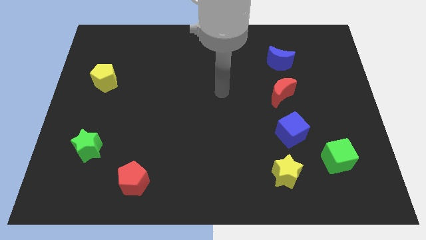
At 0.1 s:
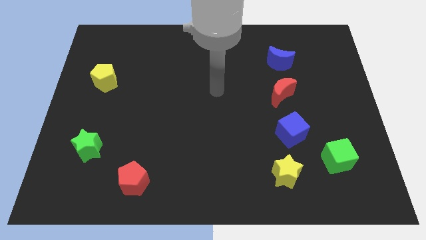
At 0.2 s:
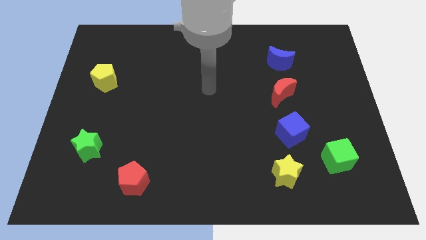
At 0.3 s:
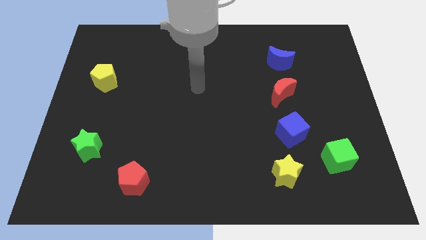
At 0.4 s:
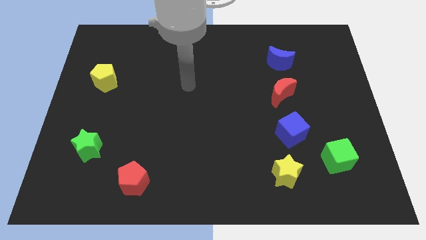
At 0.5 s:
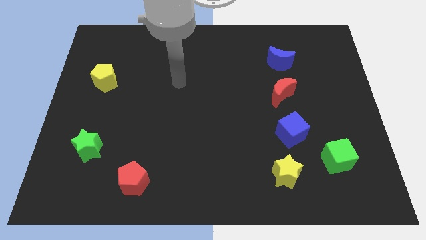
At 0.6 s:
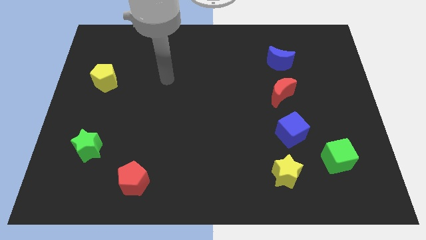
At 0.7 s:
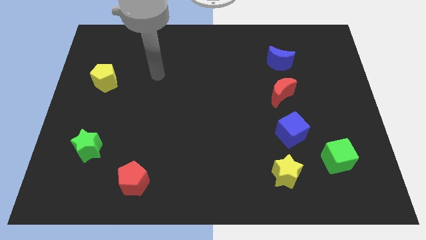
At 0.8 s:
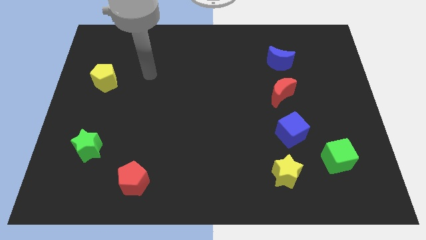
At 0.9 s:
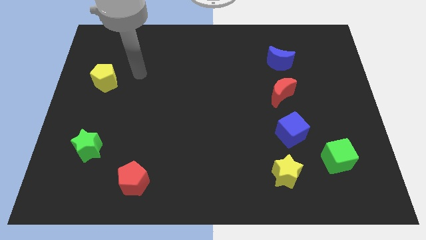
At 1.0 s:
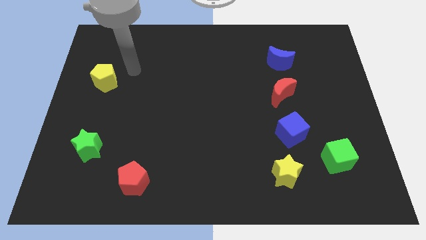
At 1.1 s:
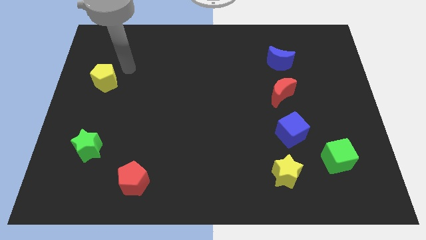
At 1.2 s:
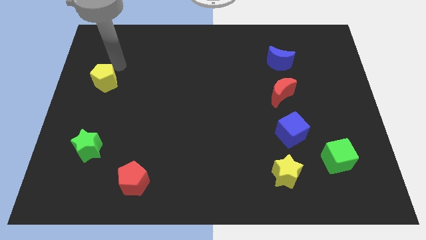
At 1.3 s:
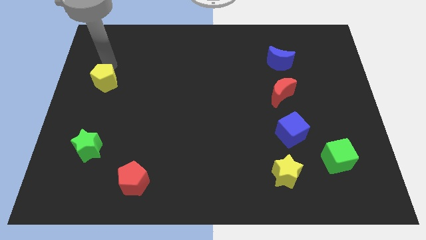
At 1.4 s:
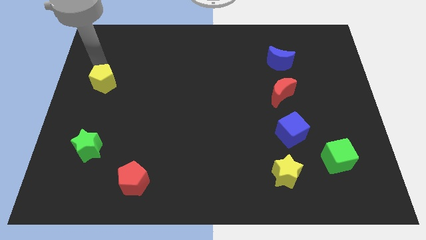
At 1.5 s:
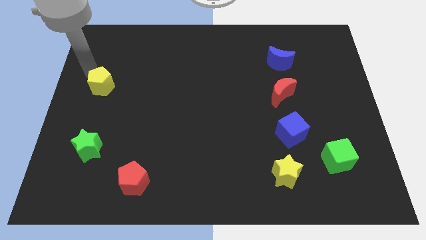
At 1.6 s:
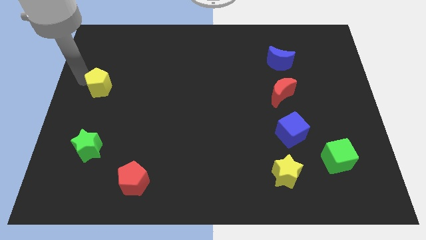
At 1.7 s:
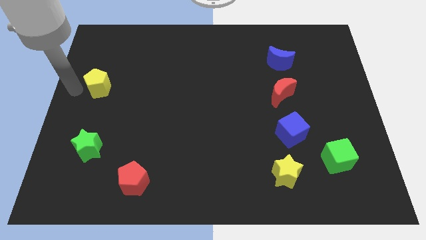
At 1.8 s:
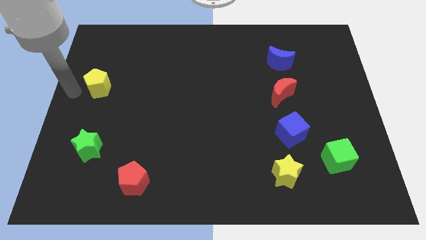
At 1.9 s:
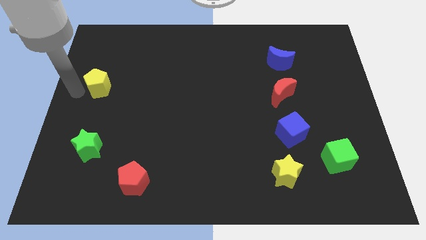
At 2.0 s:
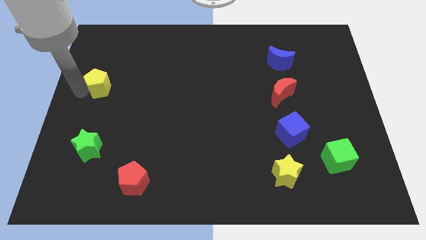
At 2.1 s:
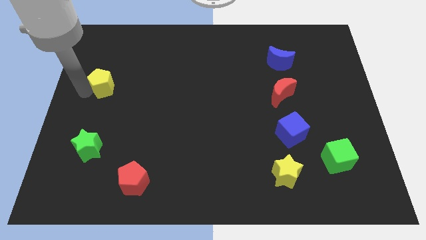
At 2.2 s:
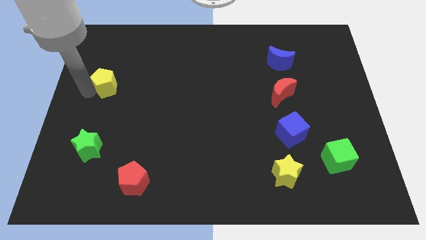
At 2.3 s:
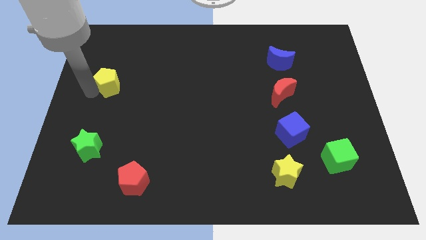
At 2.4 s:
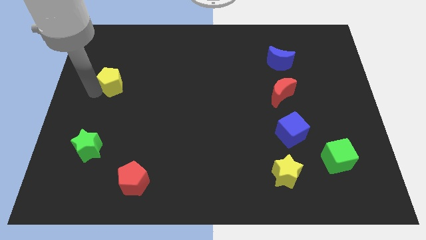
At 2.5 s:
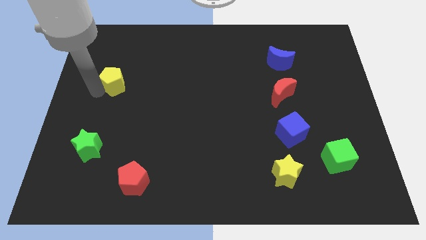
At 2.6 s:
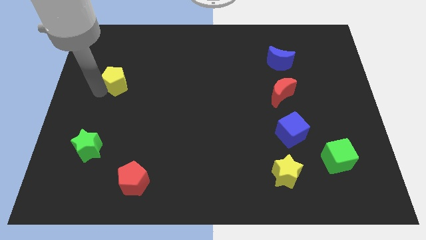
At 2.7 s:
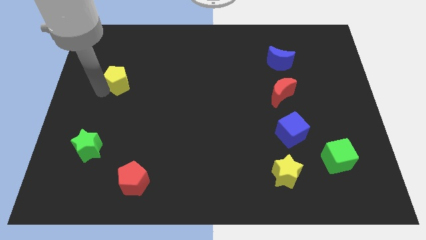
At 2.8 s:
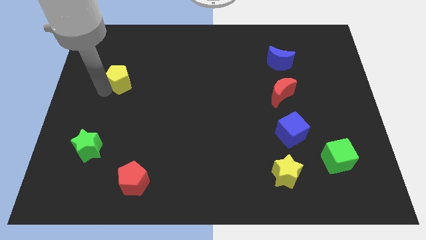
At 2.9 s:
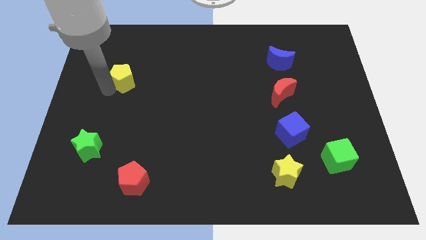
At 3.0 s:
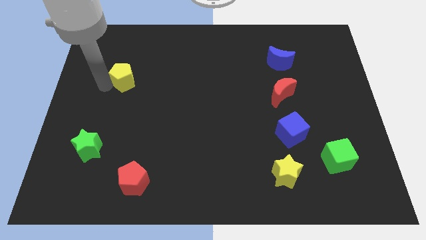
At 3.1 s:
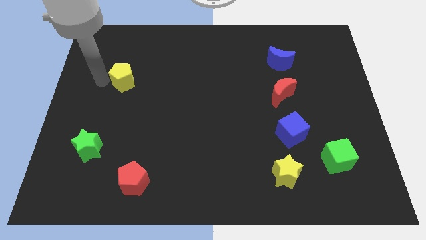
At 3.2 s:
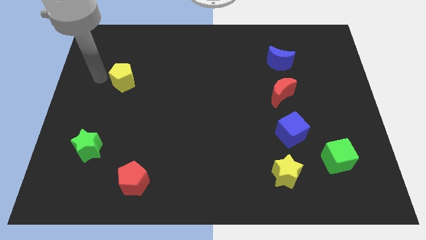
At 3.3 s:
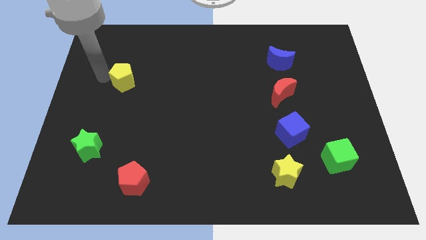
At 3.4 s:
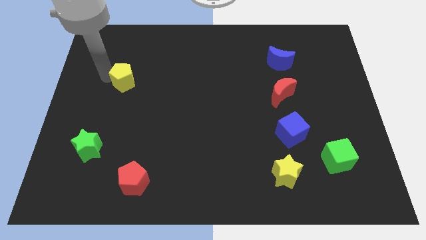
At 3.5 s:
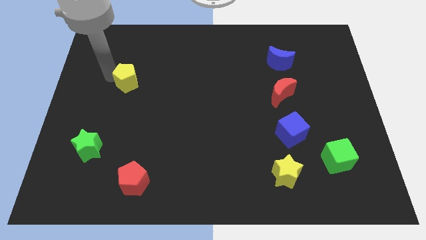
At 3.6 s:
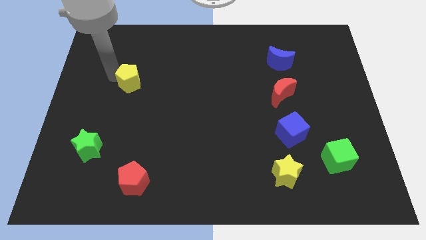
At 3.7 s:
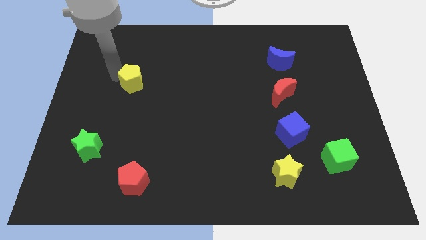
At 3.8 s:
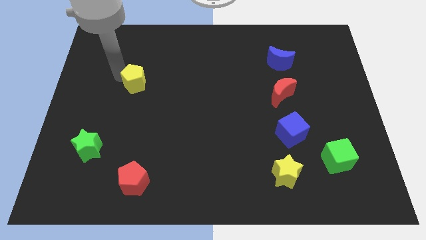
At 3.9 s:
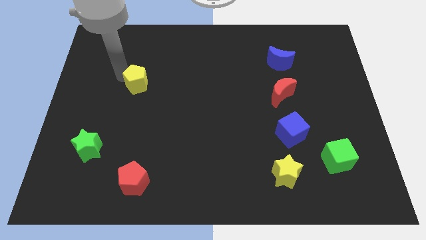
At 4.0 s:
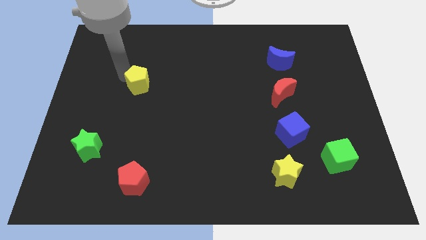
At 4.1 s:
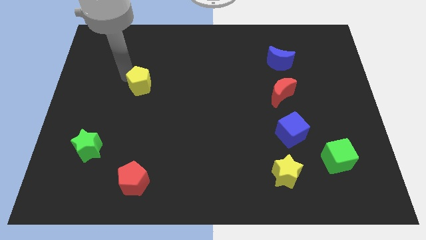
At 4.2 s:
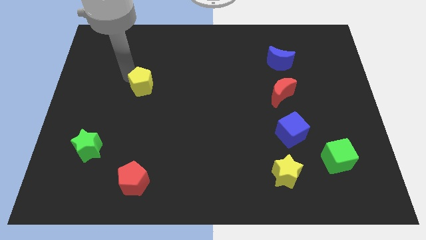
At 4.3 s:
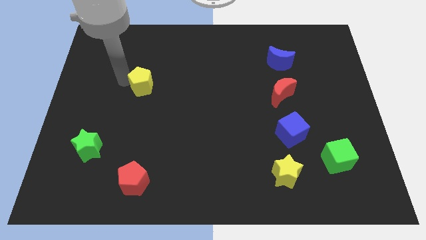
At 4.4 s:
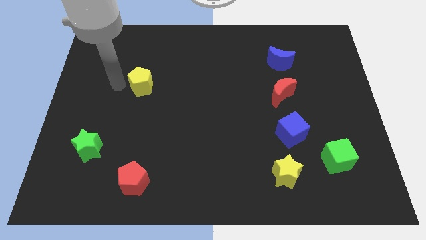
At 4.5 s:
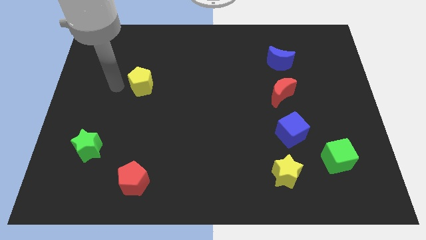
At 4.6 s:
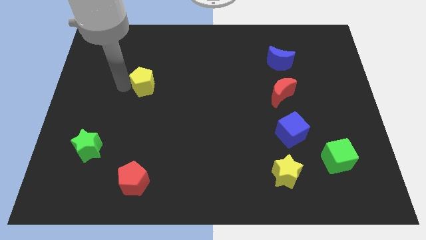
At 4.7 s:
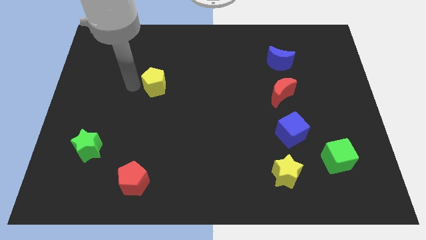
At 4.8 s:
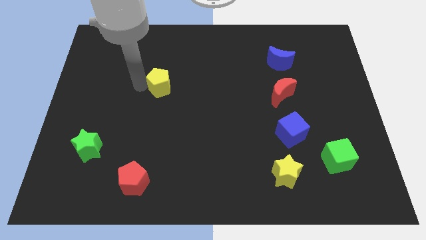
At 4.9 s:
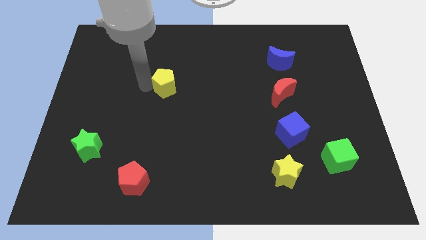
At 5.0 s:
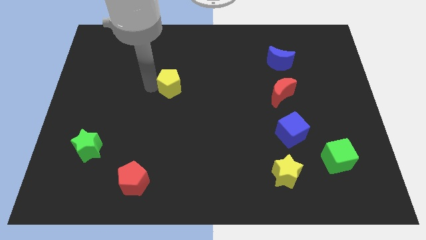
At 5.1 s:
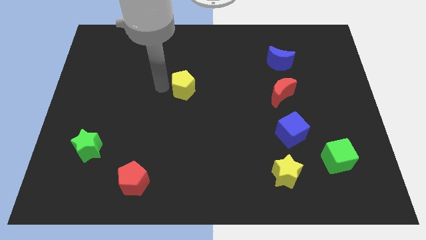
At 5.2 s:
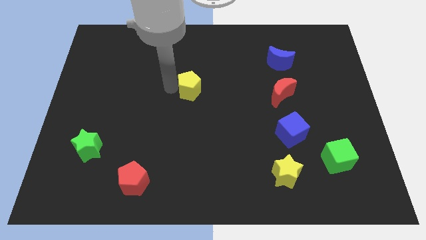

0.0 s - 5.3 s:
slide the yellow pentagon right

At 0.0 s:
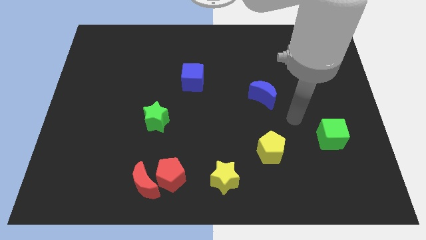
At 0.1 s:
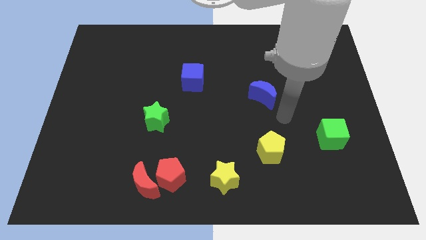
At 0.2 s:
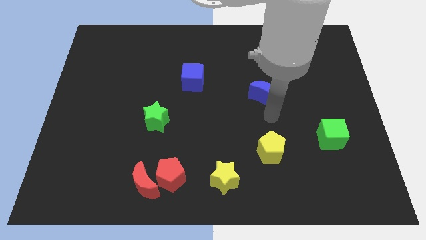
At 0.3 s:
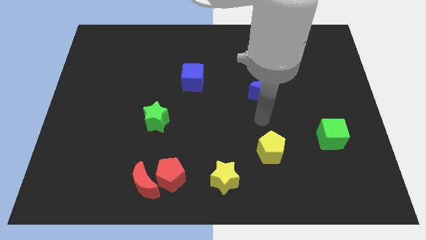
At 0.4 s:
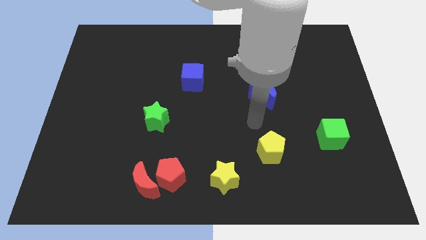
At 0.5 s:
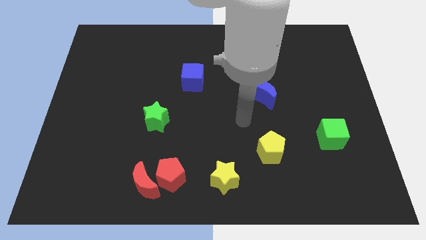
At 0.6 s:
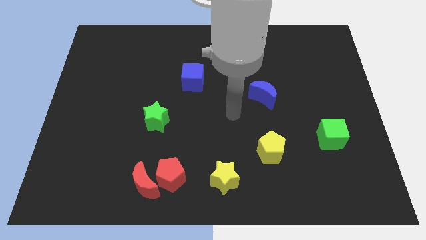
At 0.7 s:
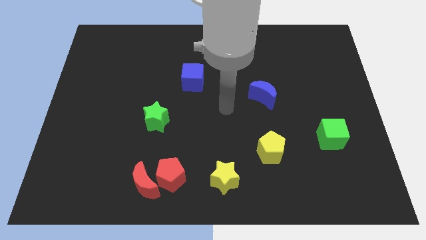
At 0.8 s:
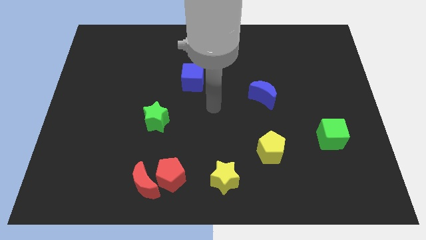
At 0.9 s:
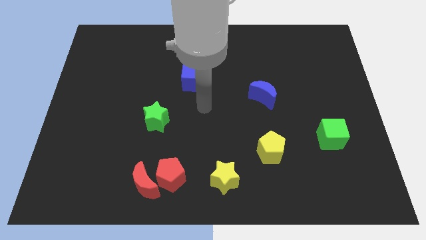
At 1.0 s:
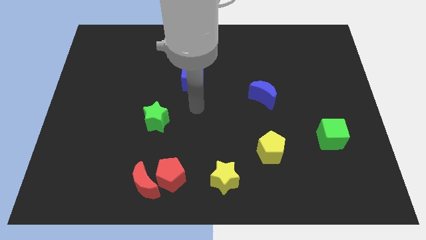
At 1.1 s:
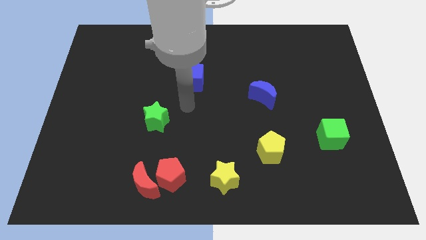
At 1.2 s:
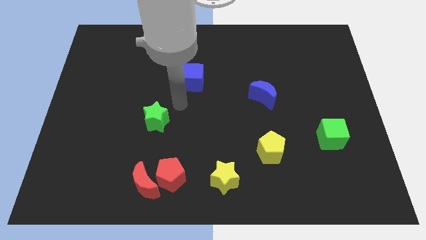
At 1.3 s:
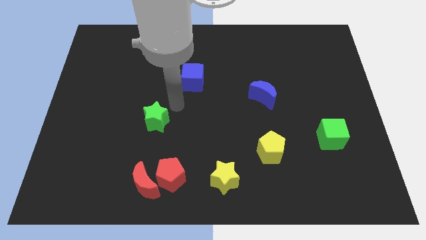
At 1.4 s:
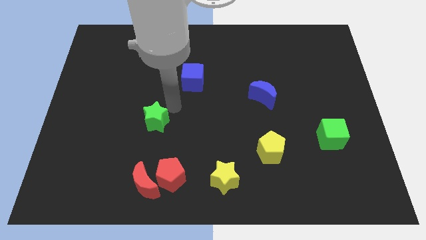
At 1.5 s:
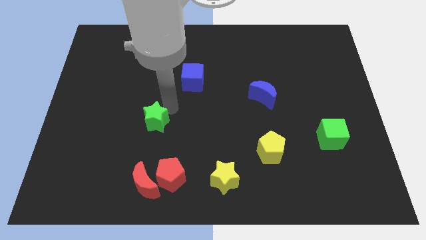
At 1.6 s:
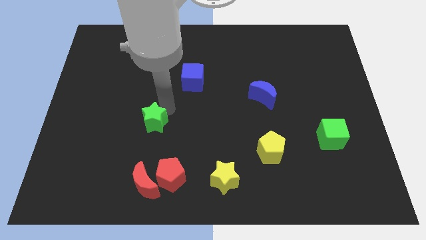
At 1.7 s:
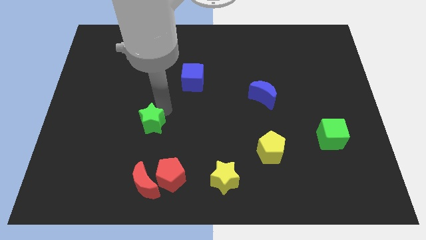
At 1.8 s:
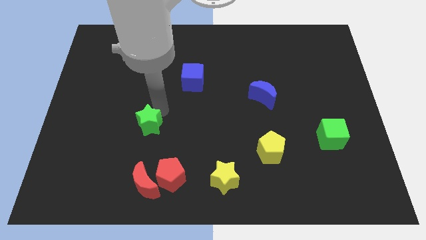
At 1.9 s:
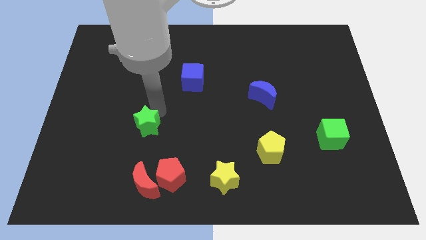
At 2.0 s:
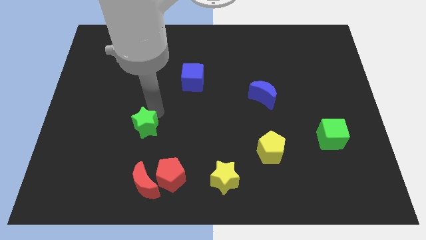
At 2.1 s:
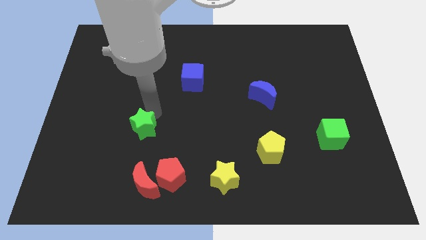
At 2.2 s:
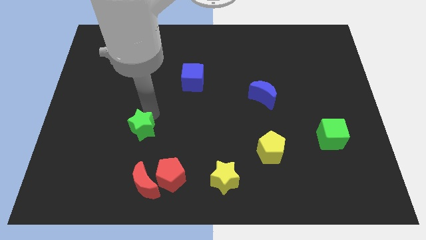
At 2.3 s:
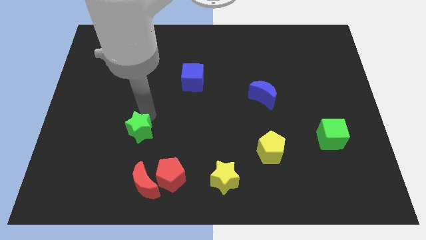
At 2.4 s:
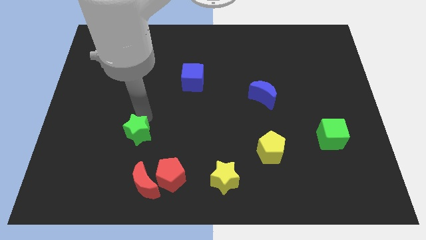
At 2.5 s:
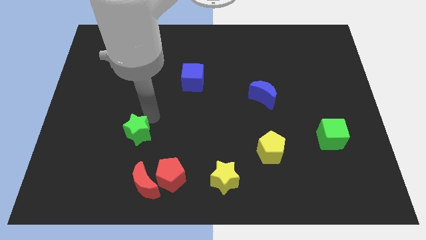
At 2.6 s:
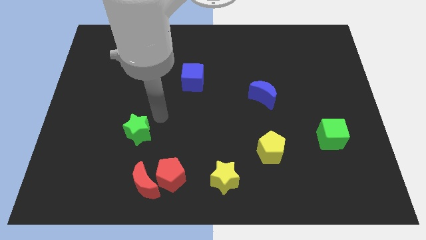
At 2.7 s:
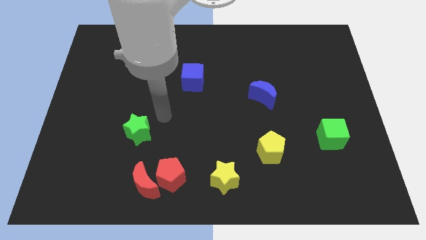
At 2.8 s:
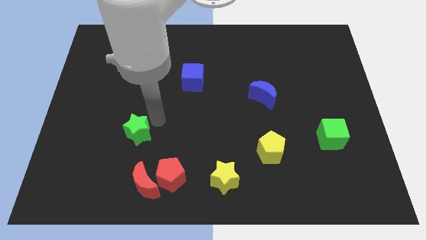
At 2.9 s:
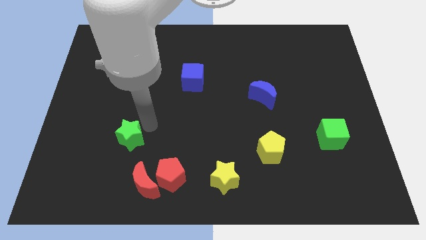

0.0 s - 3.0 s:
move the green star downwards and left diagonally a bit
